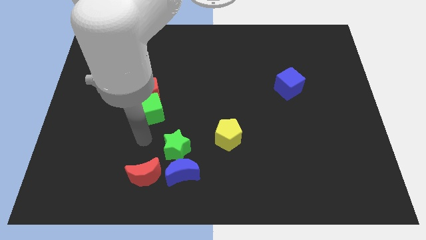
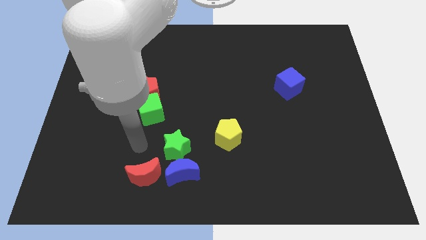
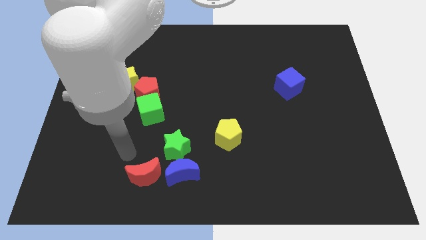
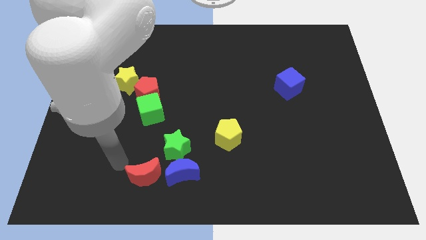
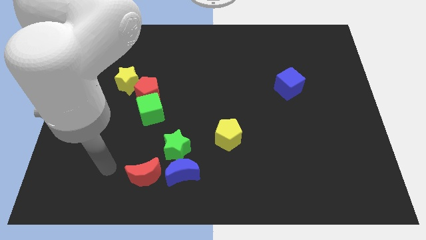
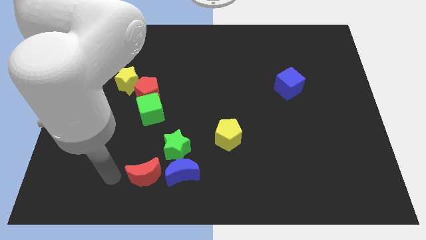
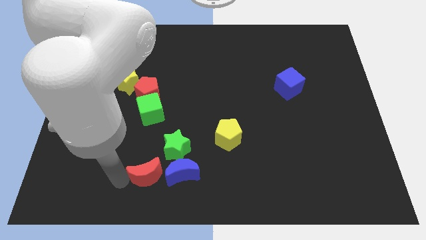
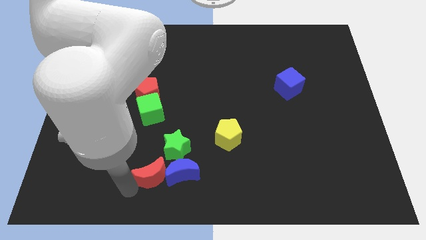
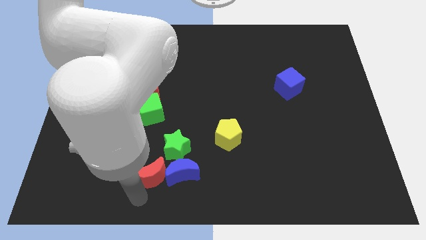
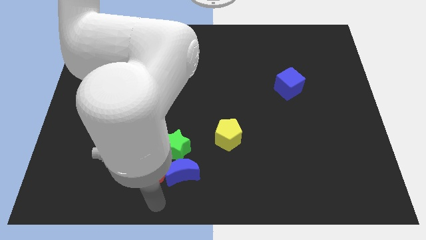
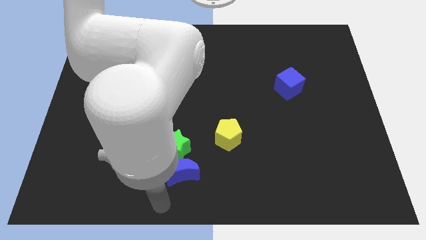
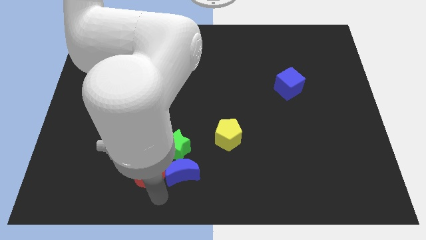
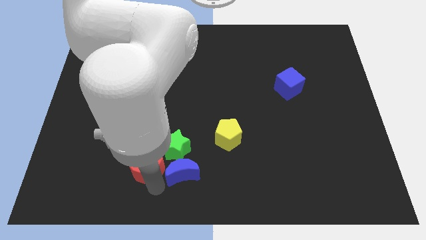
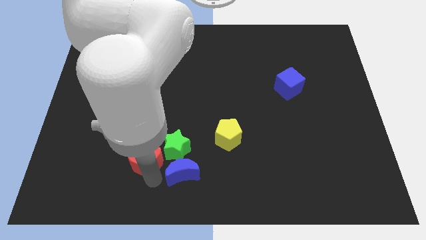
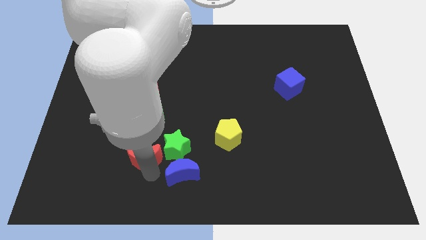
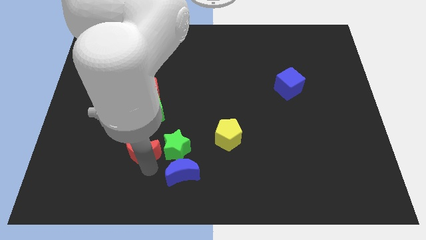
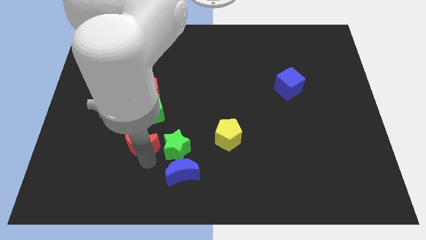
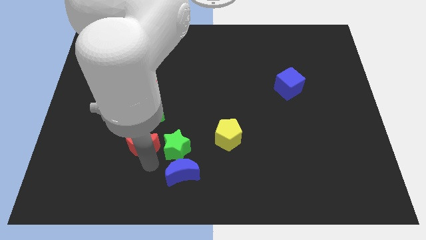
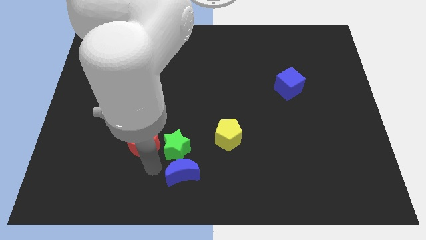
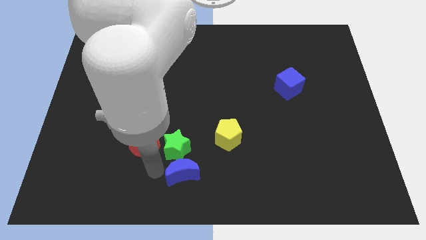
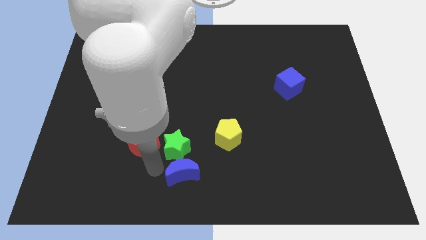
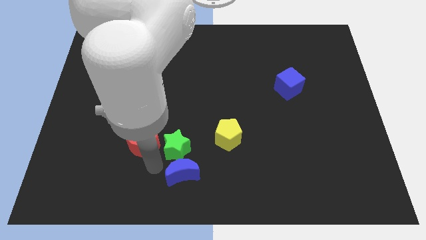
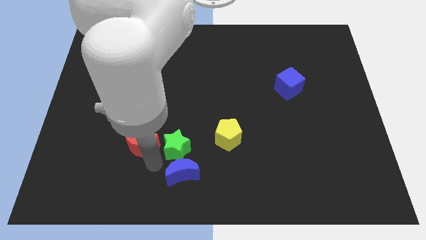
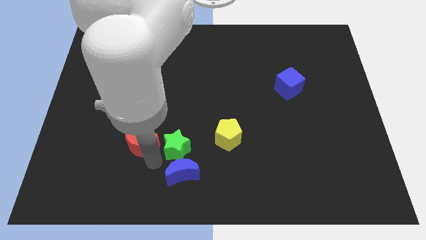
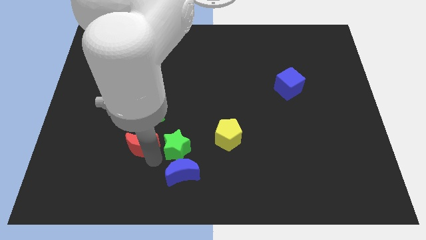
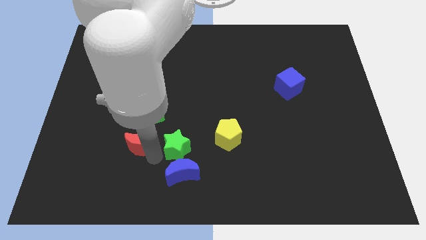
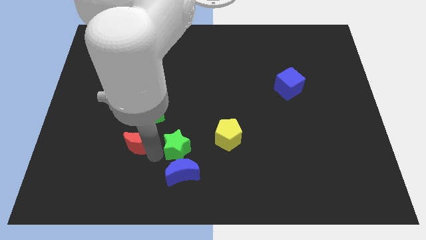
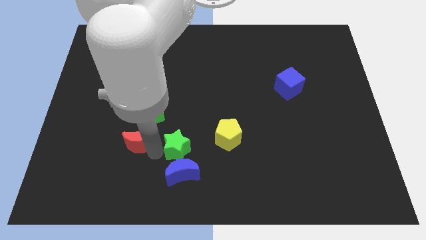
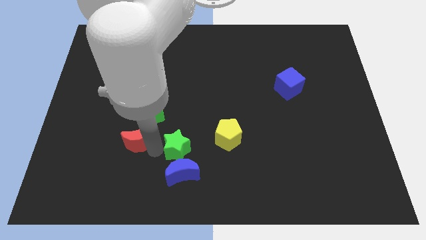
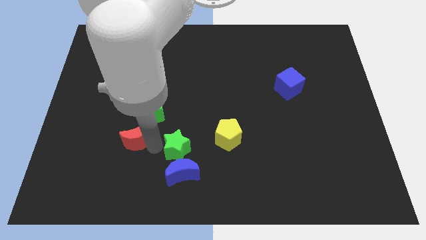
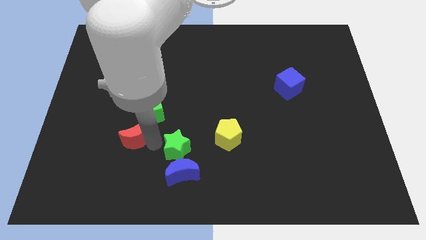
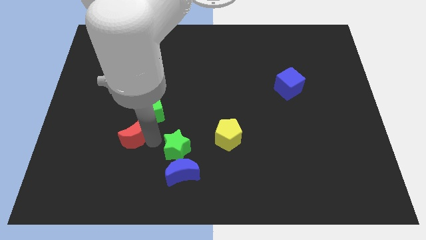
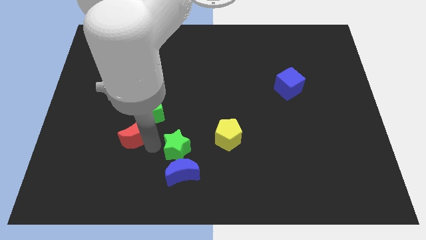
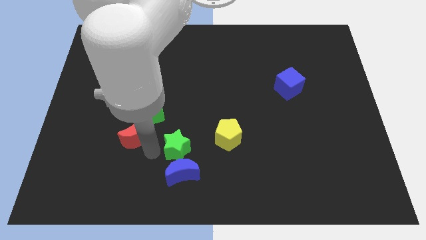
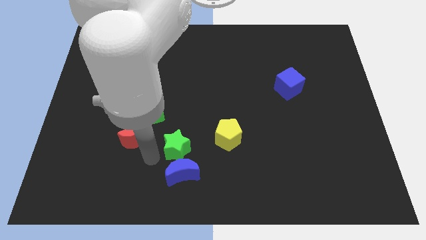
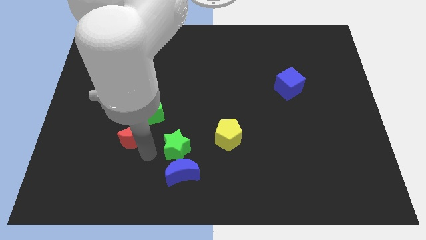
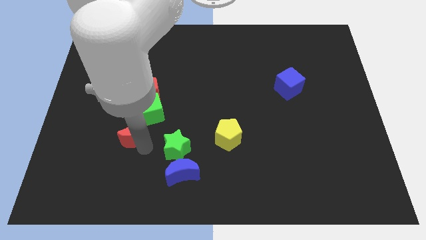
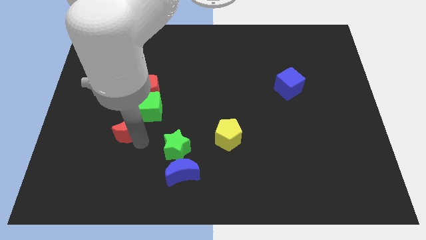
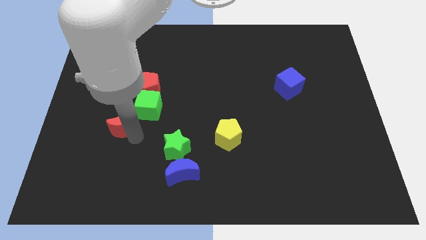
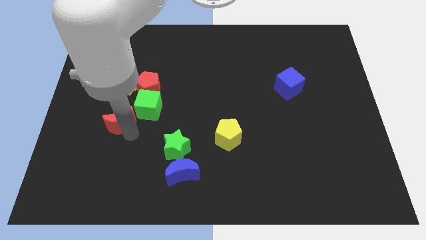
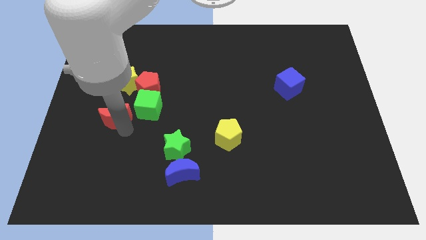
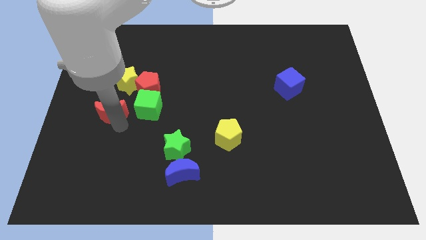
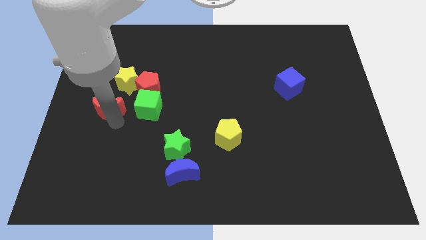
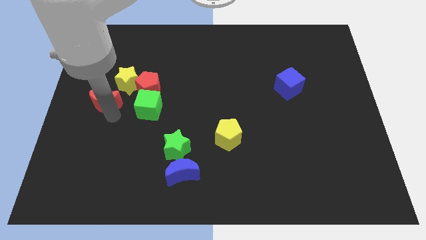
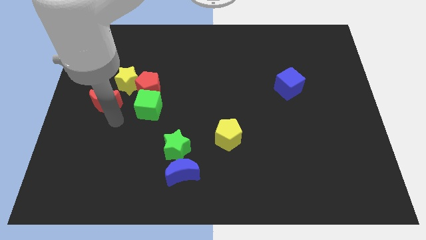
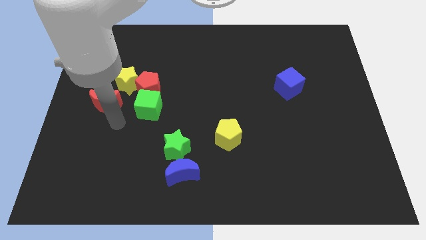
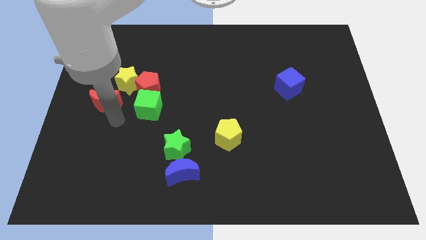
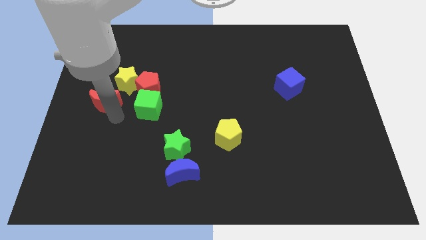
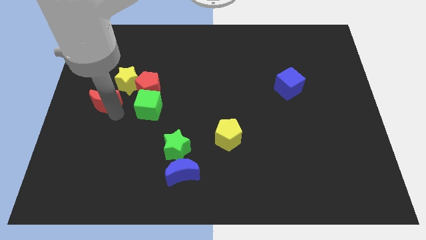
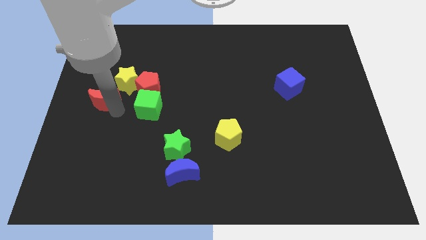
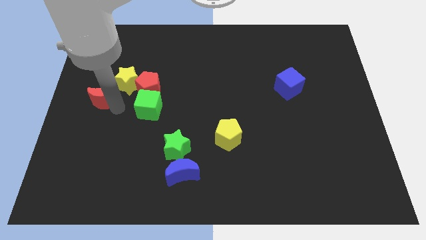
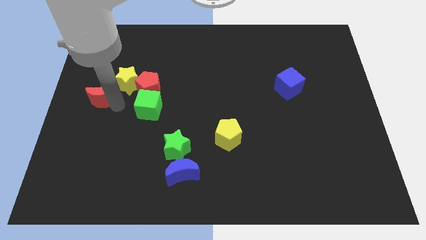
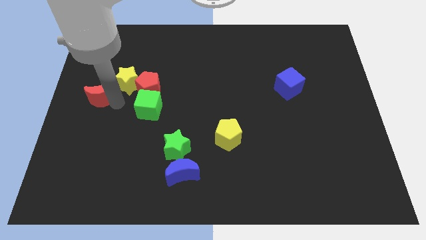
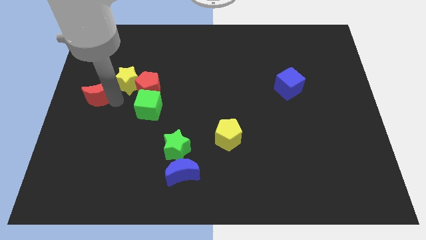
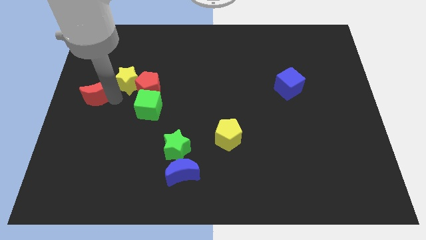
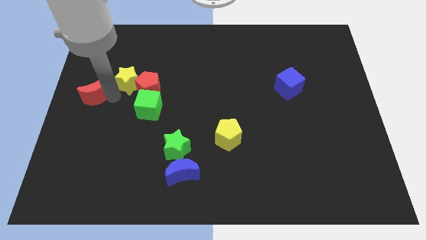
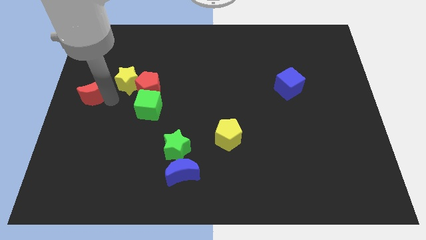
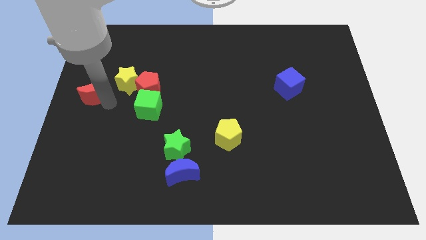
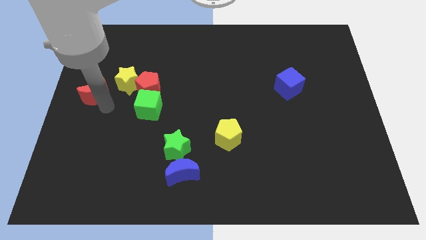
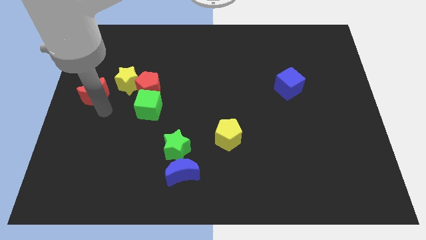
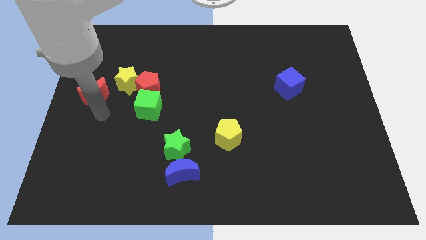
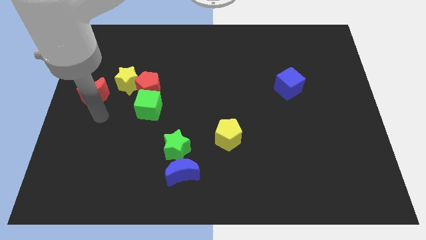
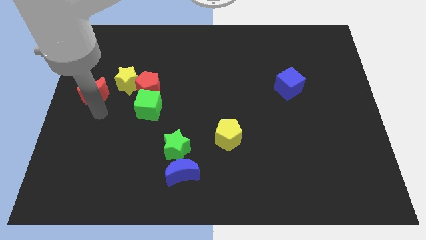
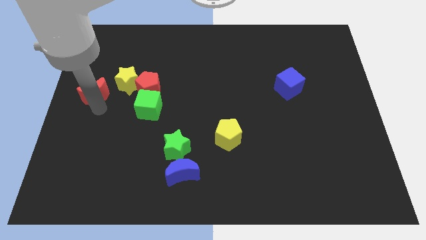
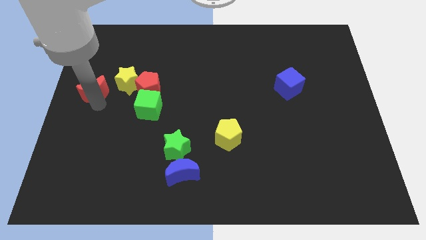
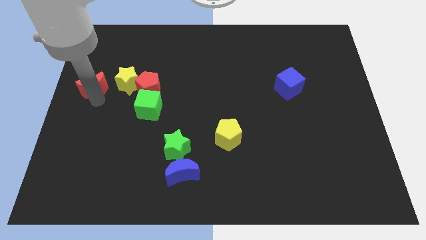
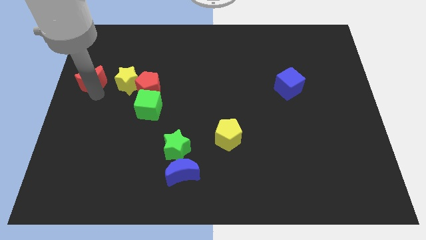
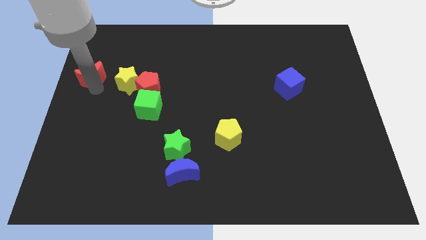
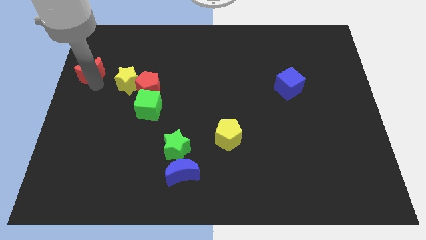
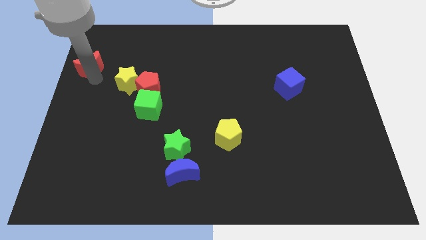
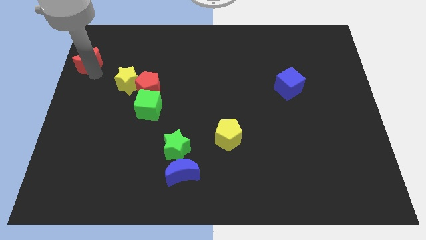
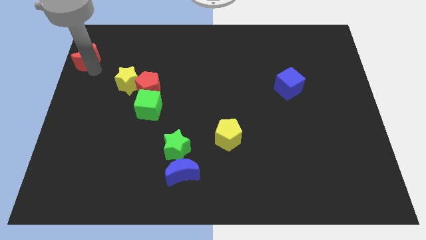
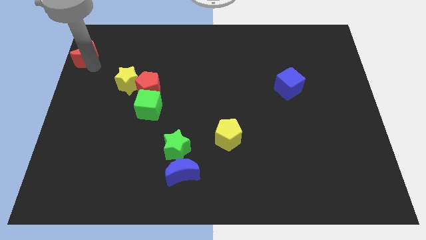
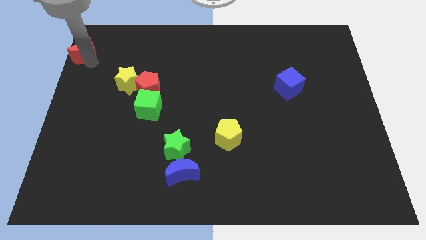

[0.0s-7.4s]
move the red moon to the top left of the board
